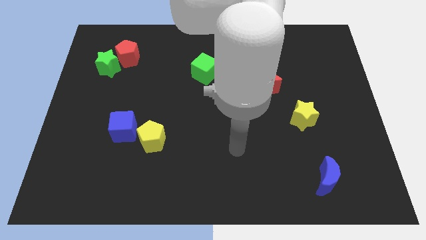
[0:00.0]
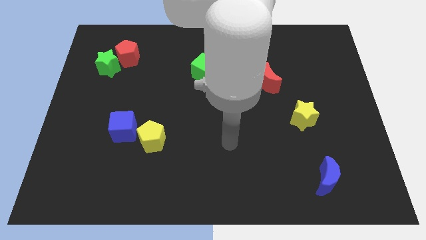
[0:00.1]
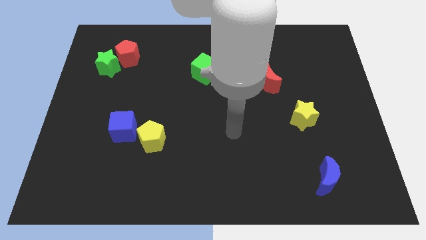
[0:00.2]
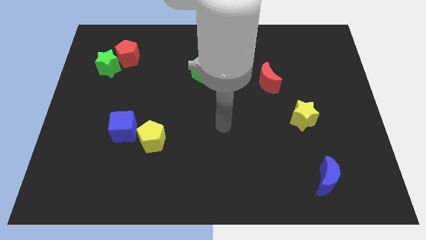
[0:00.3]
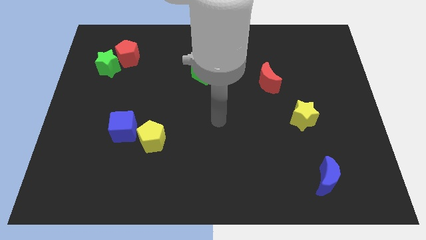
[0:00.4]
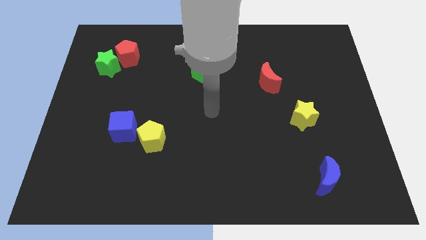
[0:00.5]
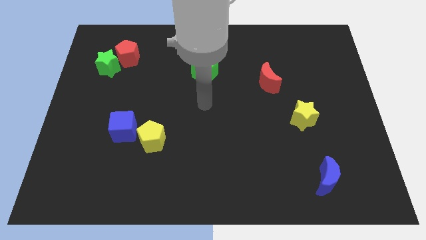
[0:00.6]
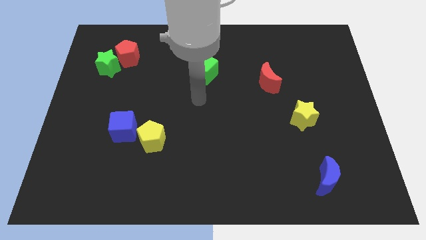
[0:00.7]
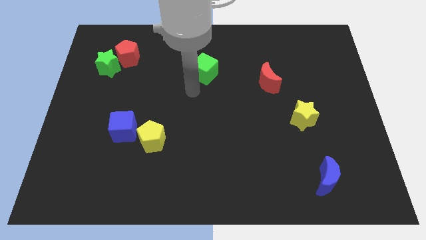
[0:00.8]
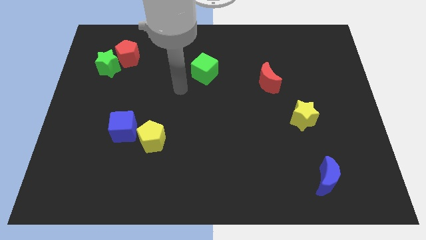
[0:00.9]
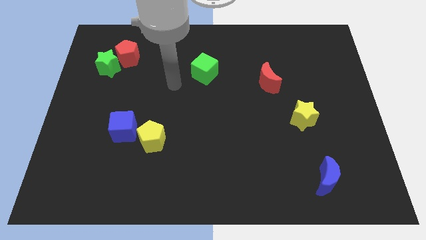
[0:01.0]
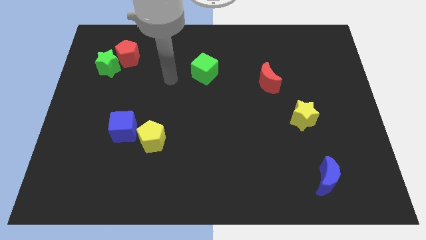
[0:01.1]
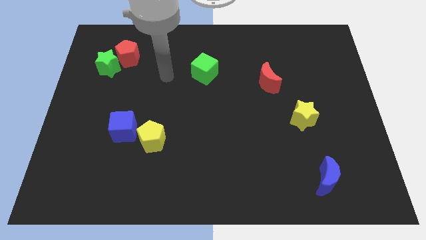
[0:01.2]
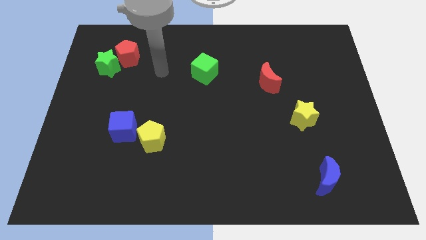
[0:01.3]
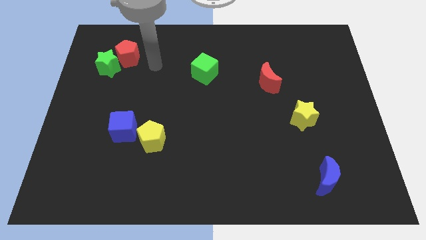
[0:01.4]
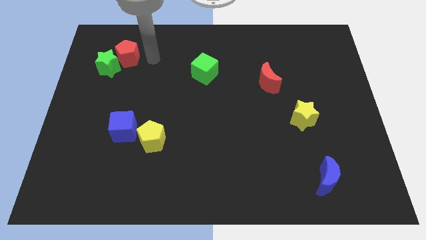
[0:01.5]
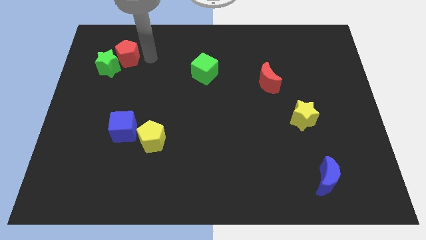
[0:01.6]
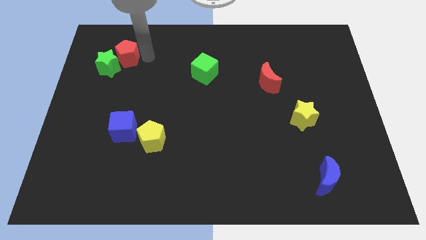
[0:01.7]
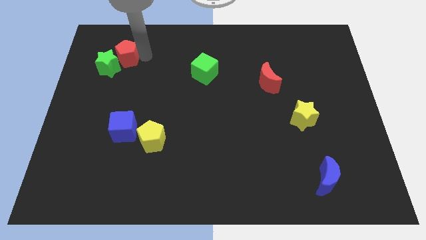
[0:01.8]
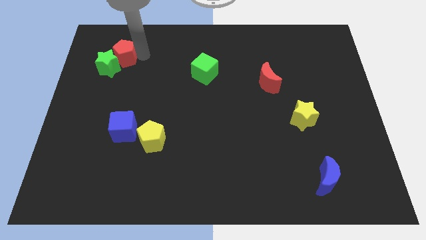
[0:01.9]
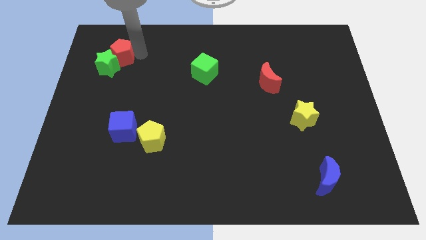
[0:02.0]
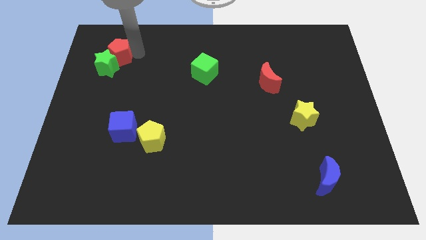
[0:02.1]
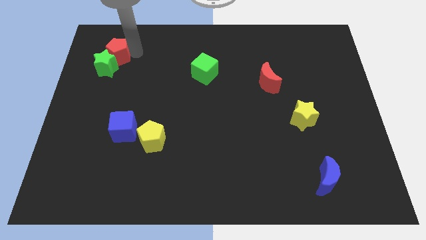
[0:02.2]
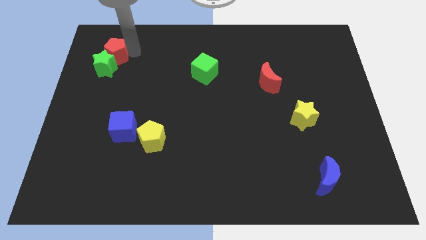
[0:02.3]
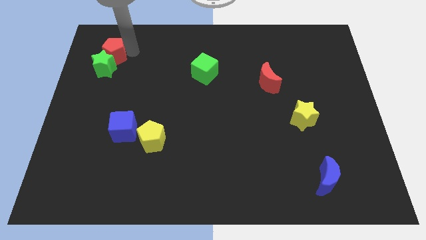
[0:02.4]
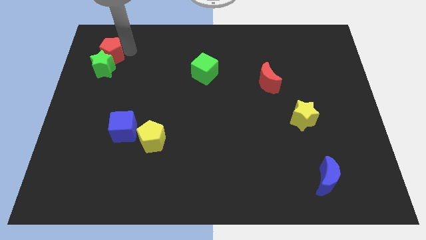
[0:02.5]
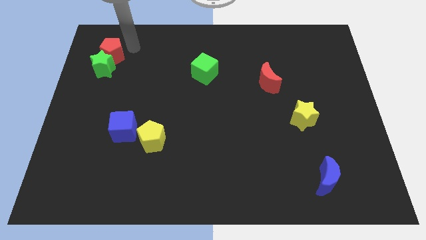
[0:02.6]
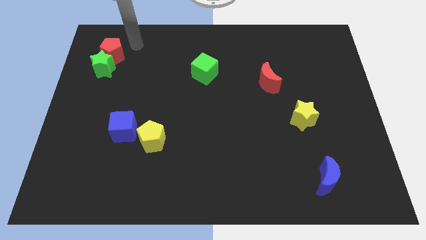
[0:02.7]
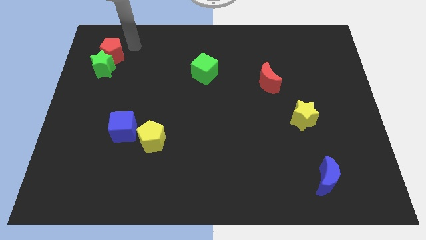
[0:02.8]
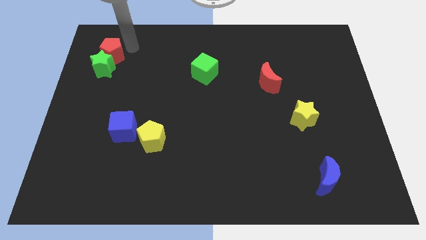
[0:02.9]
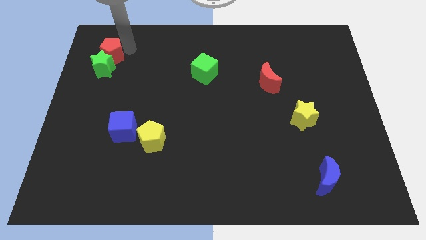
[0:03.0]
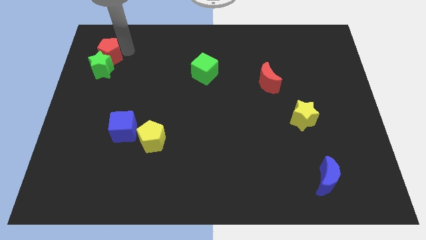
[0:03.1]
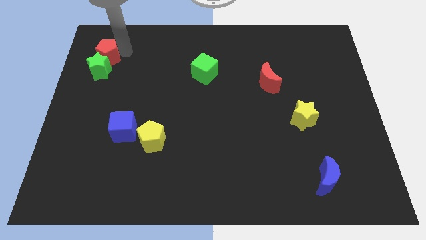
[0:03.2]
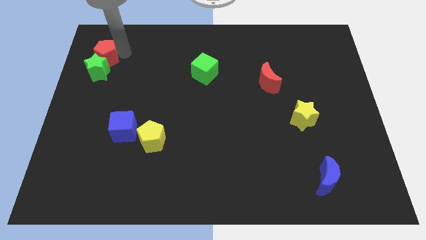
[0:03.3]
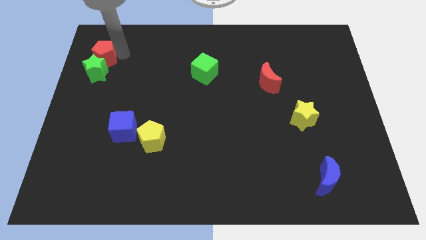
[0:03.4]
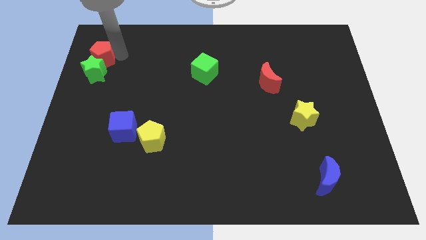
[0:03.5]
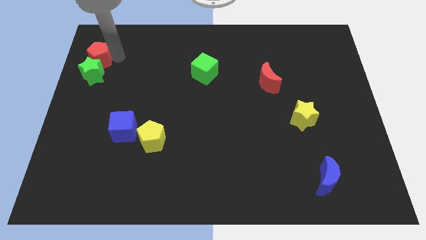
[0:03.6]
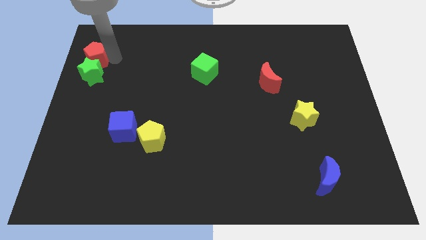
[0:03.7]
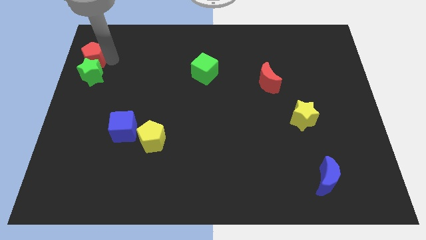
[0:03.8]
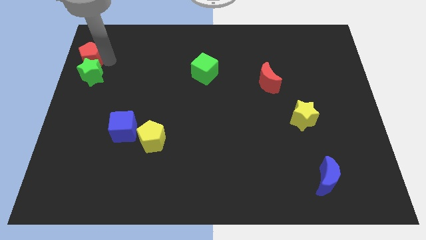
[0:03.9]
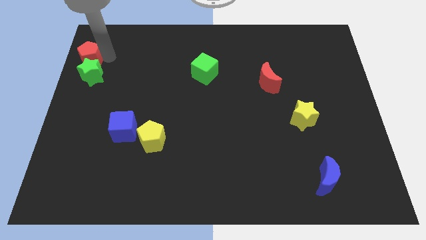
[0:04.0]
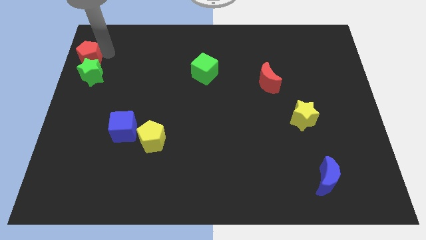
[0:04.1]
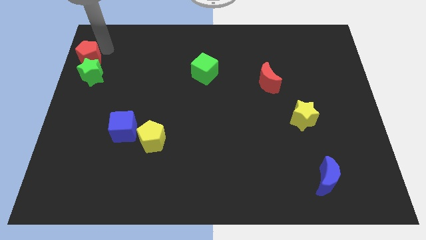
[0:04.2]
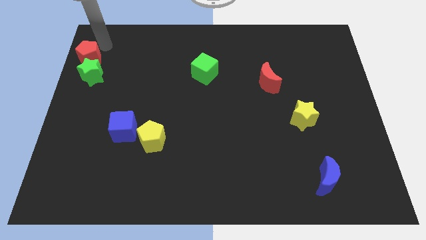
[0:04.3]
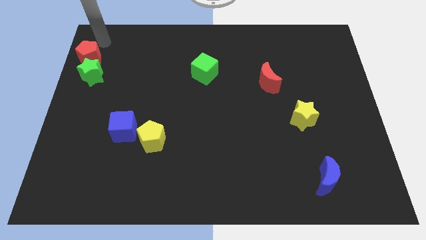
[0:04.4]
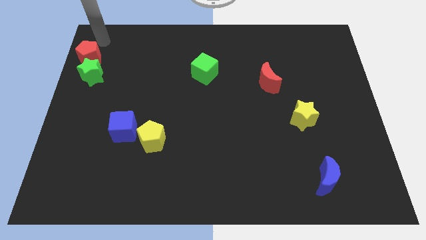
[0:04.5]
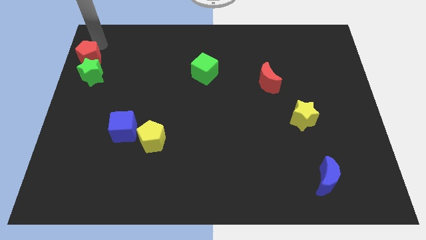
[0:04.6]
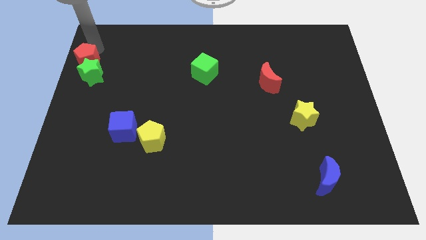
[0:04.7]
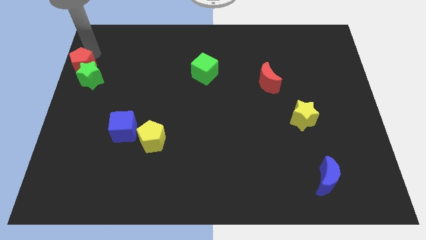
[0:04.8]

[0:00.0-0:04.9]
push the red pentagon to the left side
